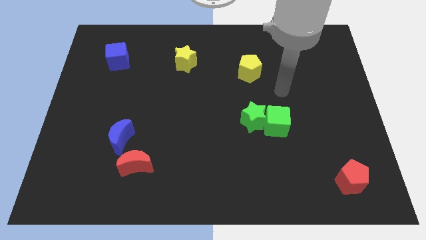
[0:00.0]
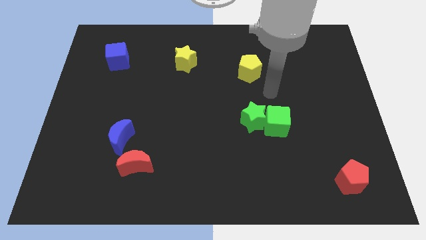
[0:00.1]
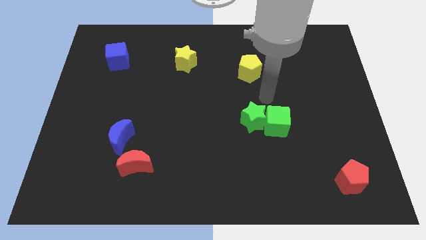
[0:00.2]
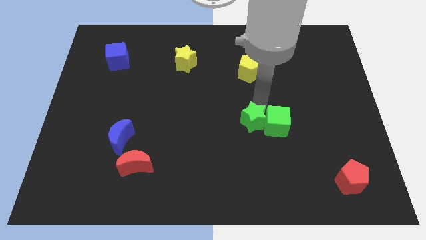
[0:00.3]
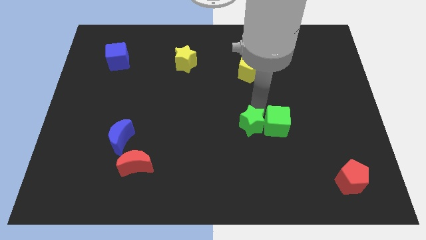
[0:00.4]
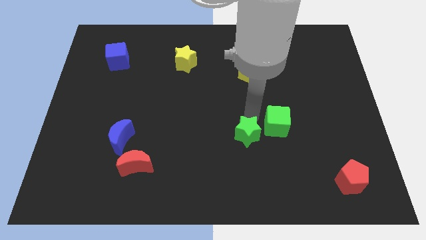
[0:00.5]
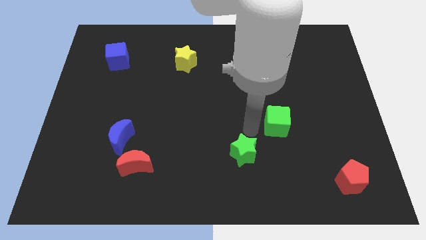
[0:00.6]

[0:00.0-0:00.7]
separate the green cube from the green star

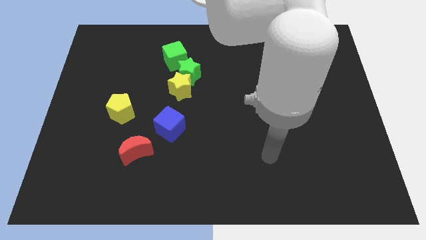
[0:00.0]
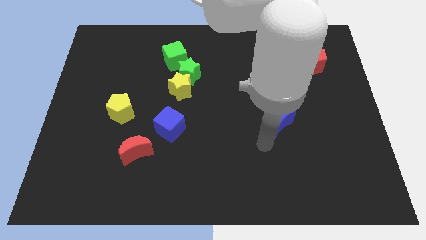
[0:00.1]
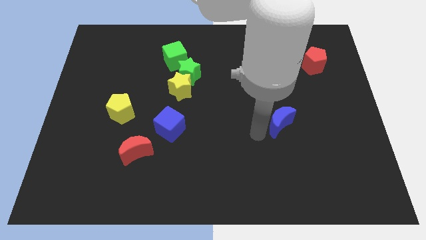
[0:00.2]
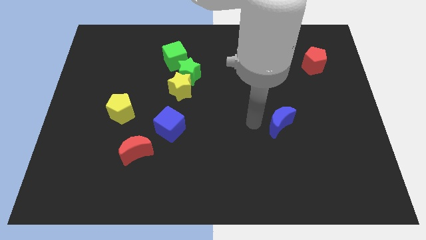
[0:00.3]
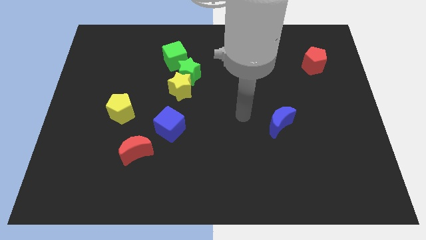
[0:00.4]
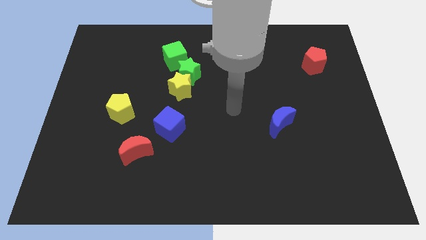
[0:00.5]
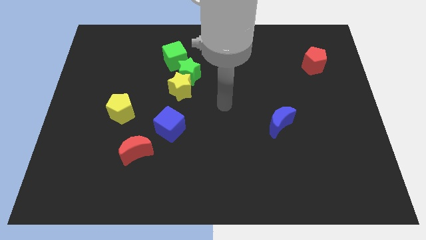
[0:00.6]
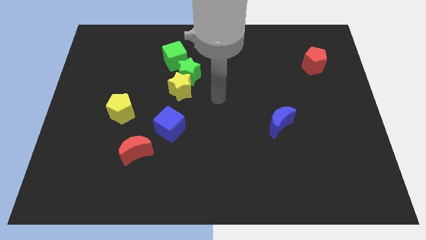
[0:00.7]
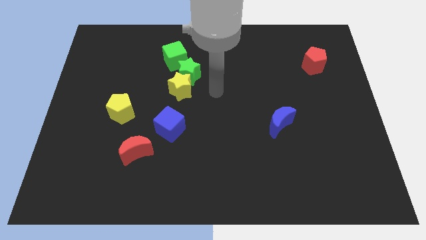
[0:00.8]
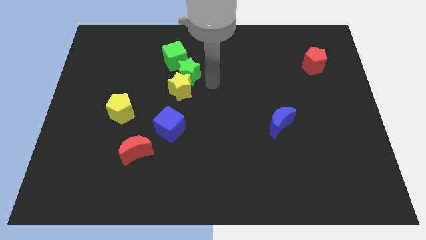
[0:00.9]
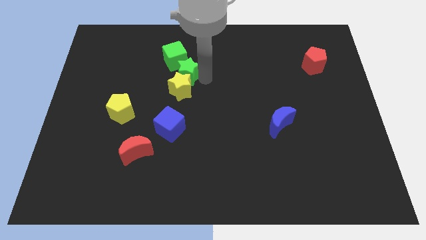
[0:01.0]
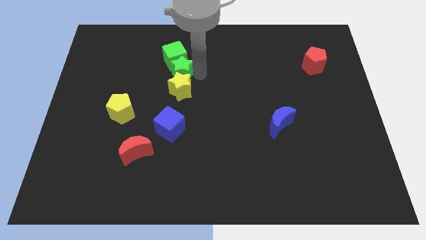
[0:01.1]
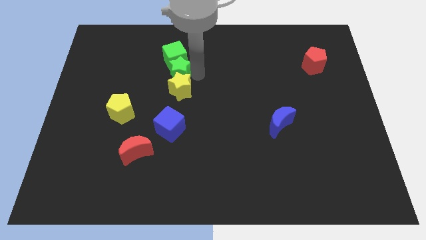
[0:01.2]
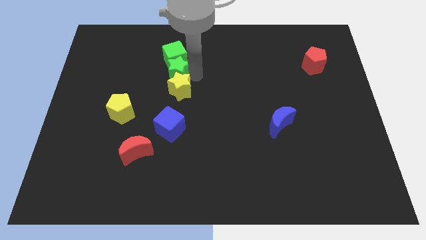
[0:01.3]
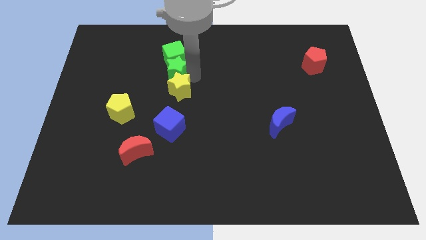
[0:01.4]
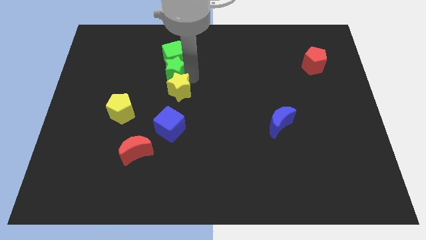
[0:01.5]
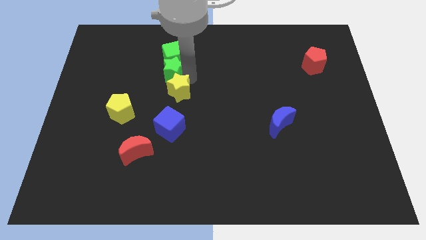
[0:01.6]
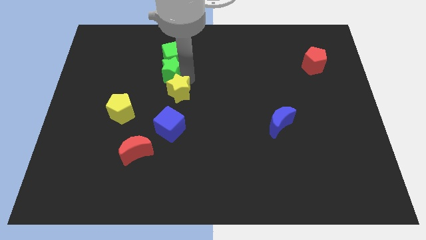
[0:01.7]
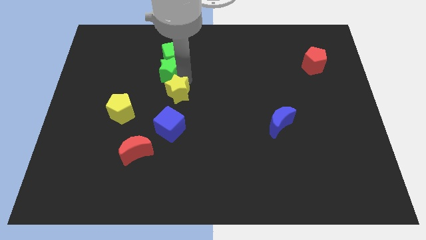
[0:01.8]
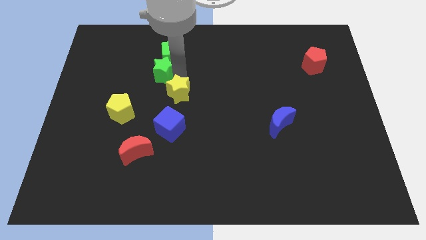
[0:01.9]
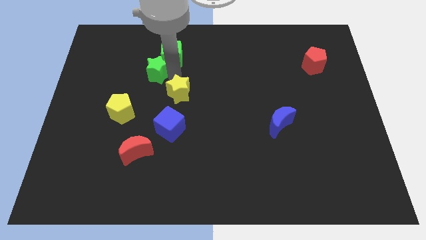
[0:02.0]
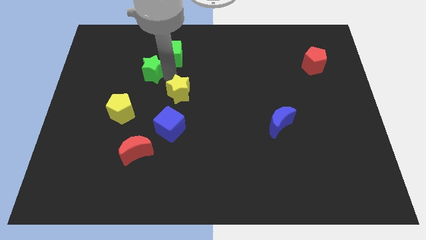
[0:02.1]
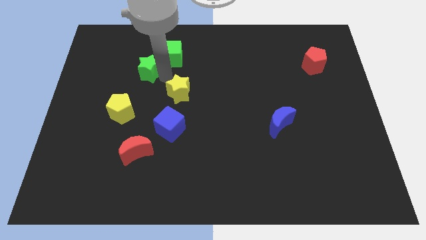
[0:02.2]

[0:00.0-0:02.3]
pull the yellow star apart from the green star

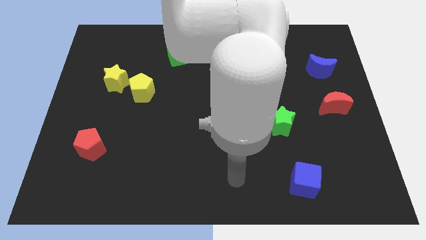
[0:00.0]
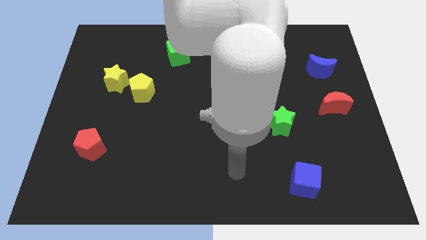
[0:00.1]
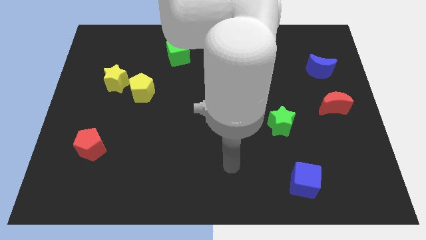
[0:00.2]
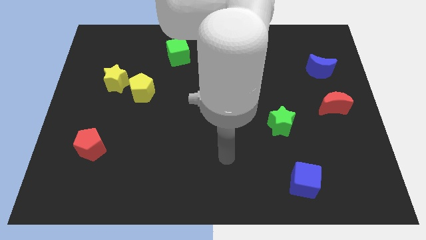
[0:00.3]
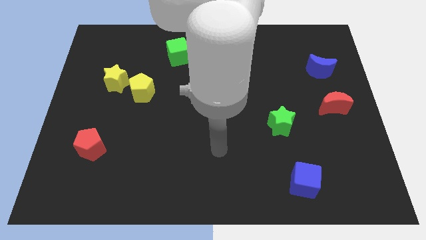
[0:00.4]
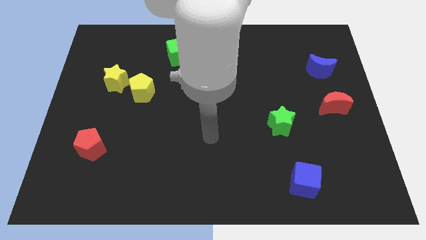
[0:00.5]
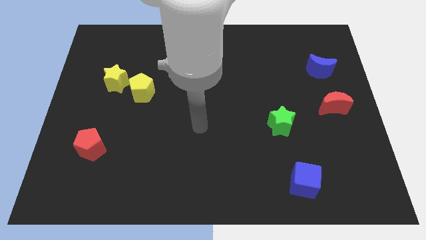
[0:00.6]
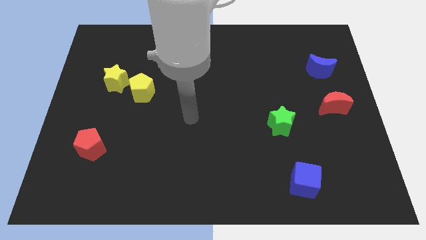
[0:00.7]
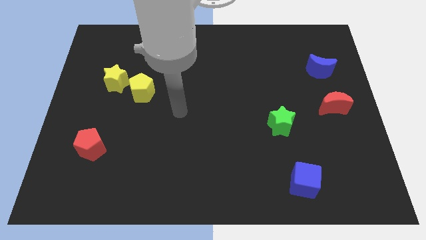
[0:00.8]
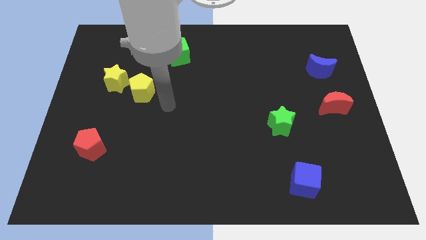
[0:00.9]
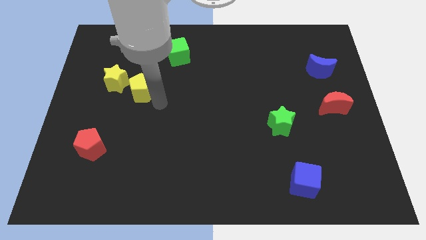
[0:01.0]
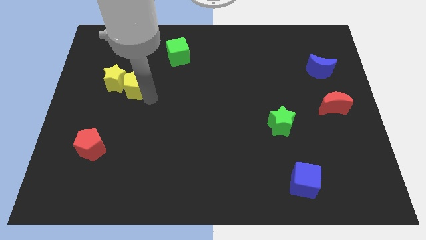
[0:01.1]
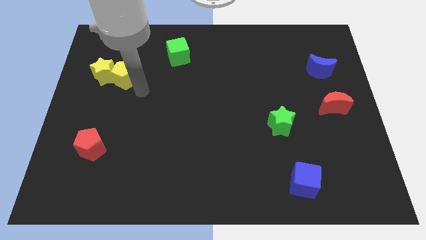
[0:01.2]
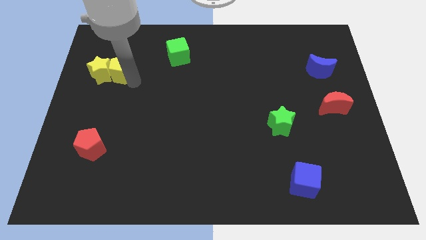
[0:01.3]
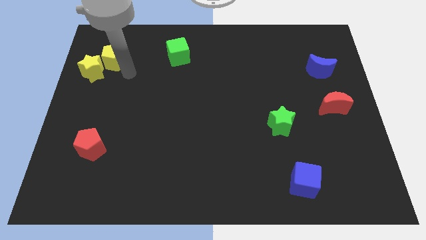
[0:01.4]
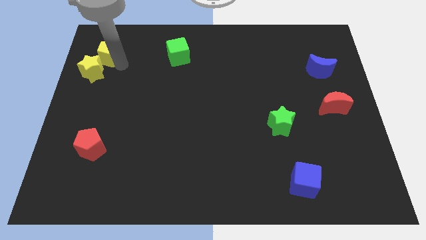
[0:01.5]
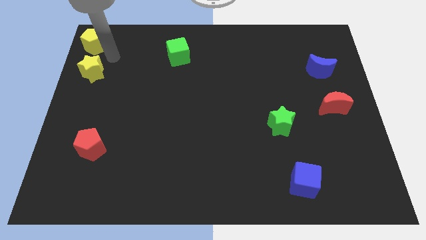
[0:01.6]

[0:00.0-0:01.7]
separate the yellow star from the yellow pentagon

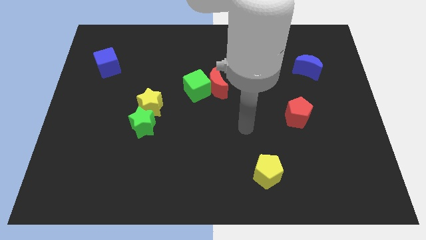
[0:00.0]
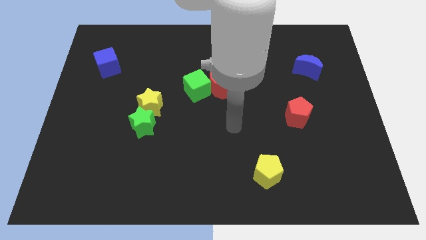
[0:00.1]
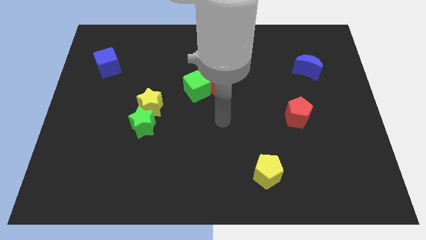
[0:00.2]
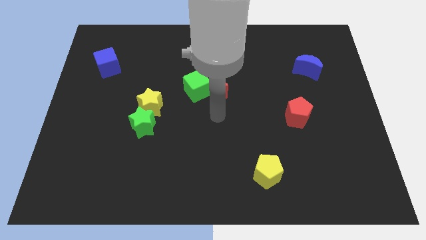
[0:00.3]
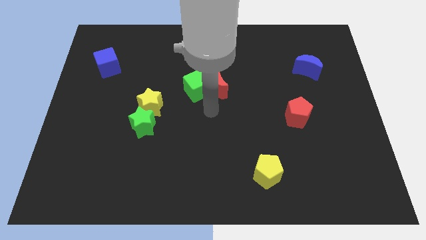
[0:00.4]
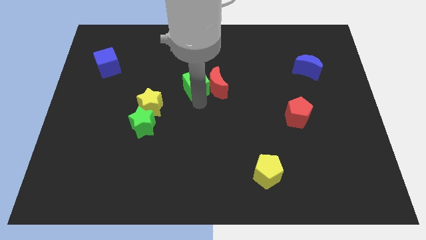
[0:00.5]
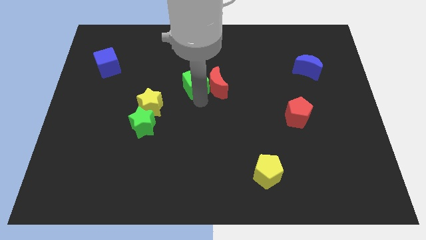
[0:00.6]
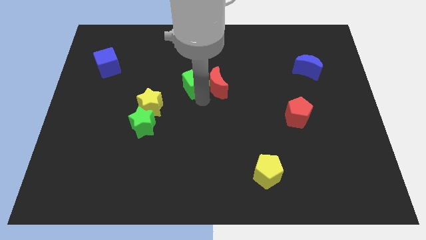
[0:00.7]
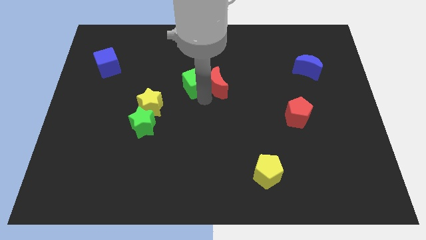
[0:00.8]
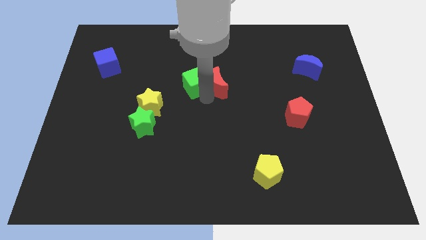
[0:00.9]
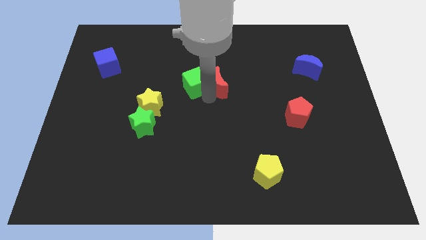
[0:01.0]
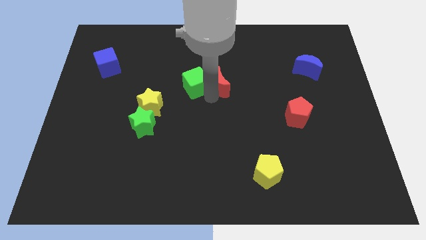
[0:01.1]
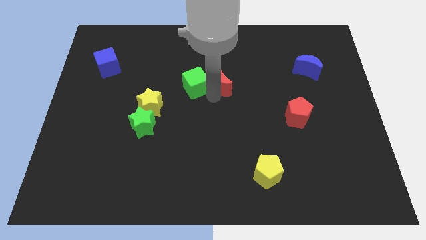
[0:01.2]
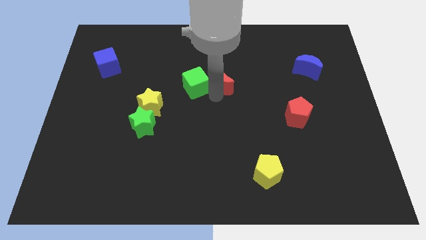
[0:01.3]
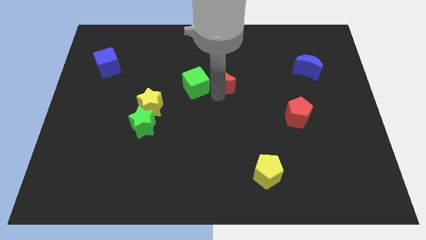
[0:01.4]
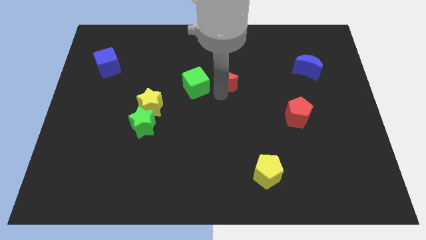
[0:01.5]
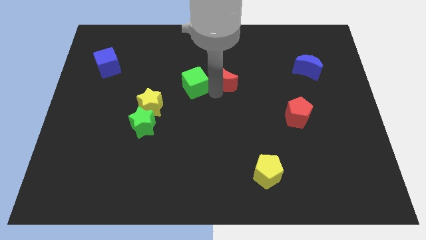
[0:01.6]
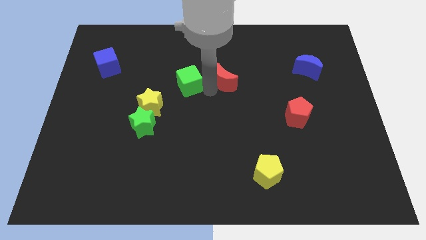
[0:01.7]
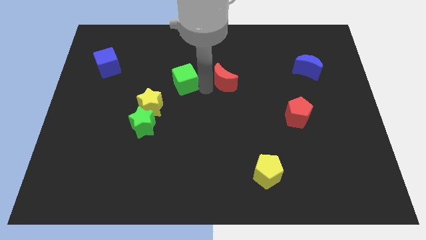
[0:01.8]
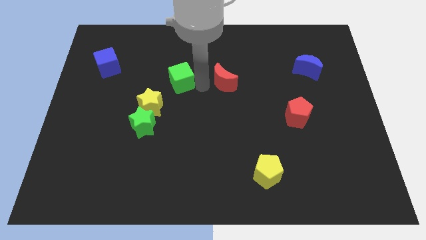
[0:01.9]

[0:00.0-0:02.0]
move the red moon away from the green cube

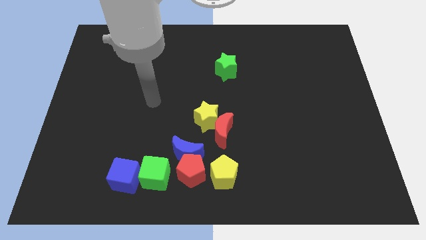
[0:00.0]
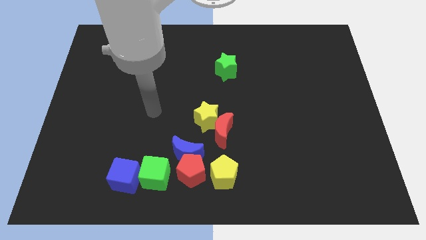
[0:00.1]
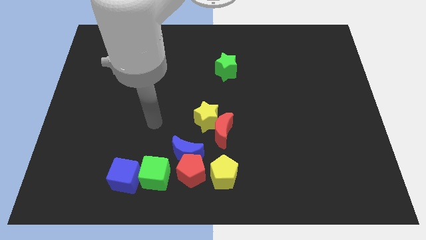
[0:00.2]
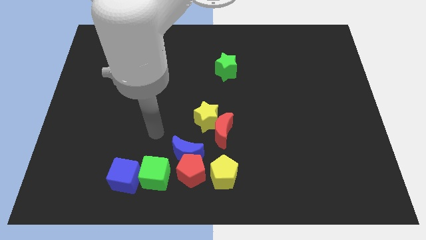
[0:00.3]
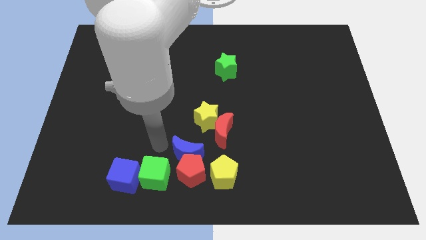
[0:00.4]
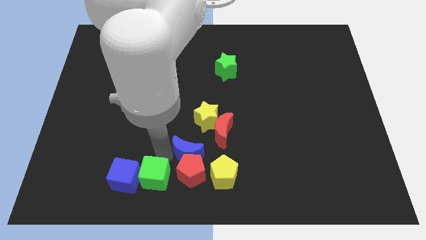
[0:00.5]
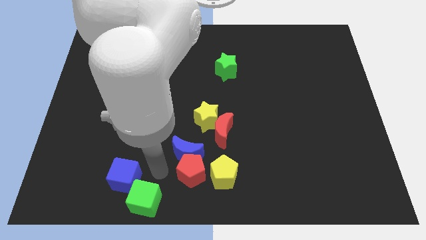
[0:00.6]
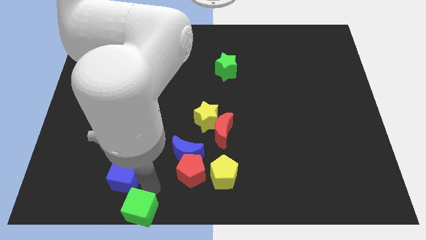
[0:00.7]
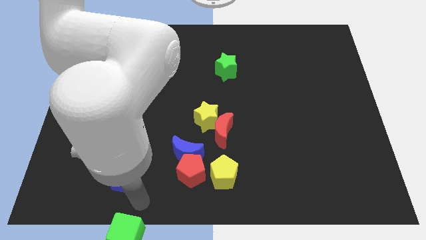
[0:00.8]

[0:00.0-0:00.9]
pull the blue cube apart from the green cube

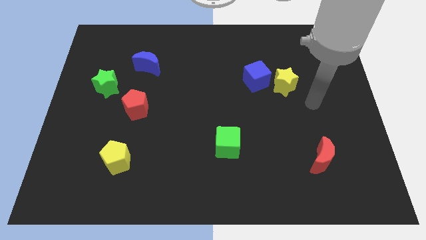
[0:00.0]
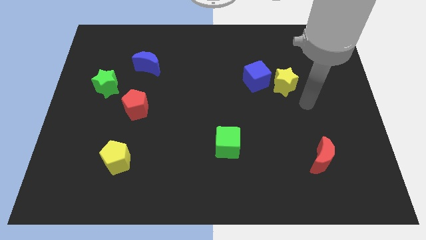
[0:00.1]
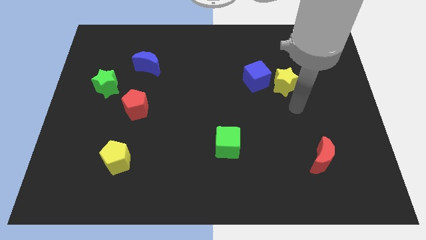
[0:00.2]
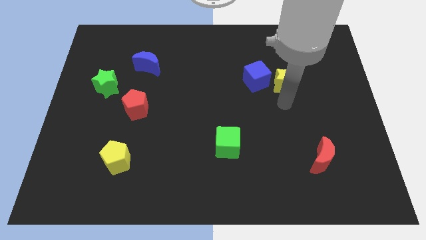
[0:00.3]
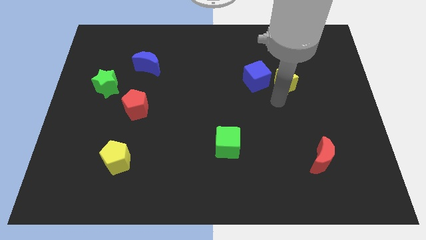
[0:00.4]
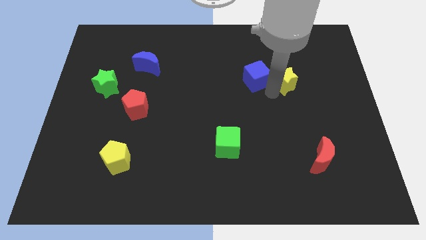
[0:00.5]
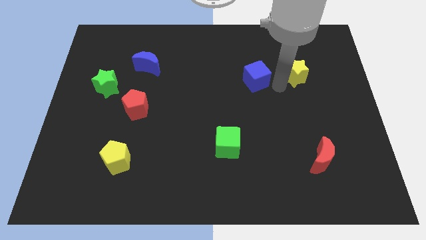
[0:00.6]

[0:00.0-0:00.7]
separate the blue cube from the yellow star

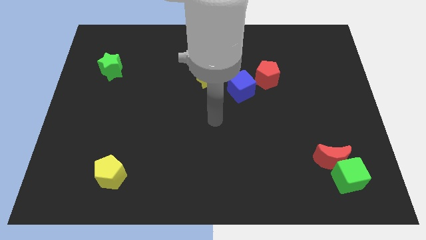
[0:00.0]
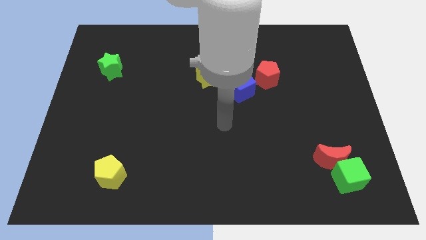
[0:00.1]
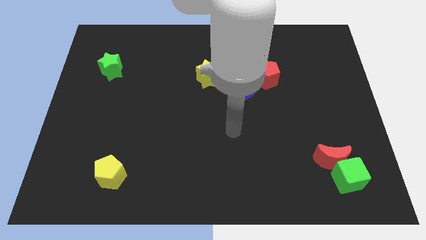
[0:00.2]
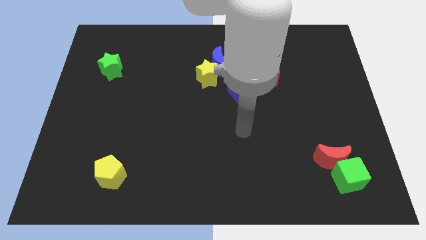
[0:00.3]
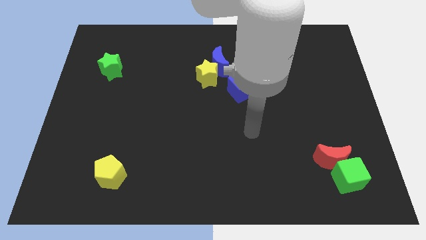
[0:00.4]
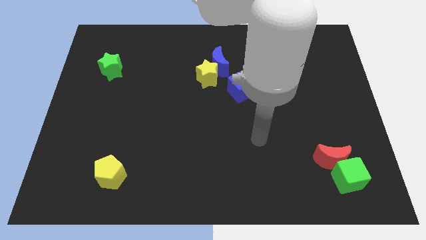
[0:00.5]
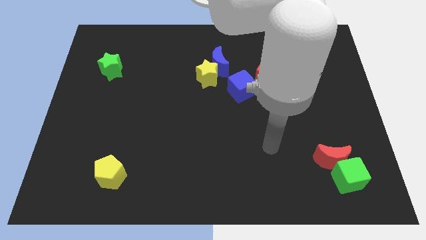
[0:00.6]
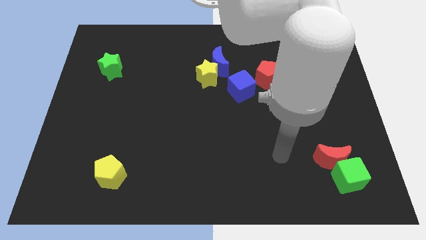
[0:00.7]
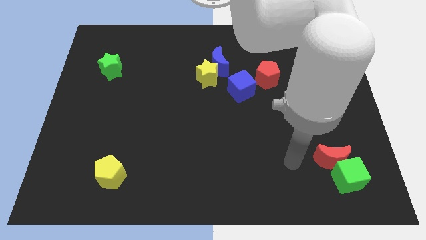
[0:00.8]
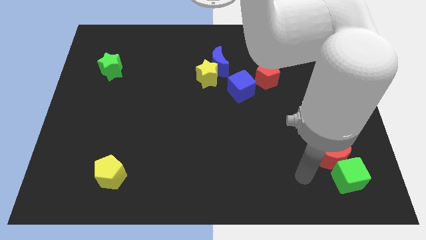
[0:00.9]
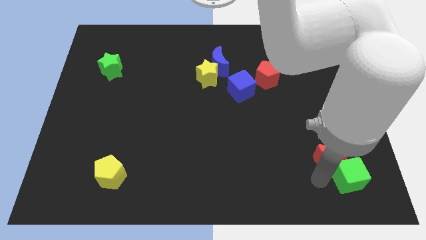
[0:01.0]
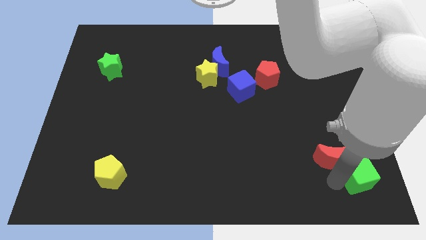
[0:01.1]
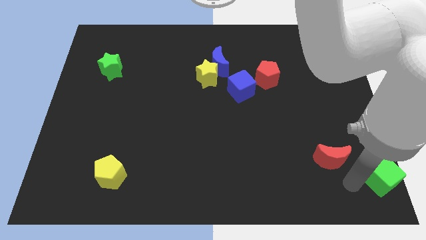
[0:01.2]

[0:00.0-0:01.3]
separate the red moon from the green cube
